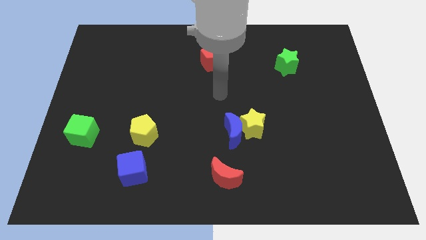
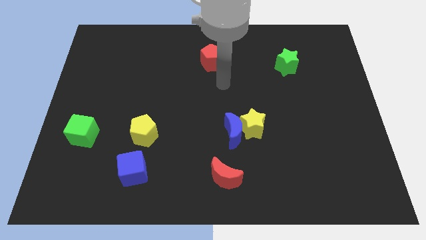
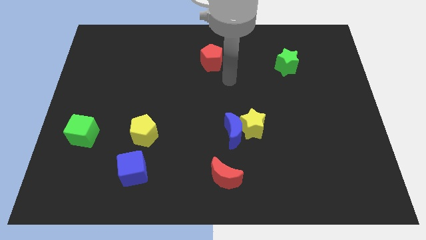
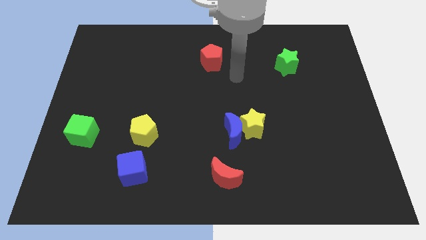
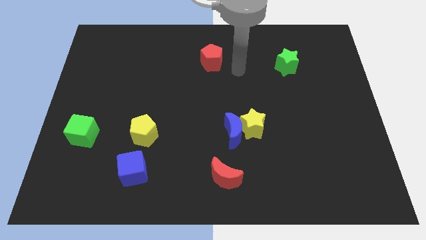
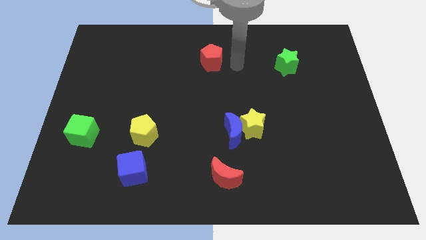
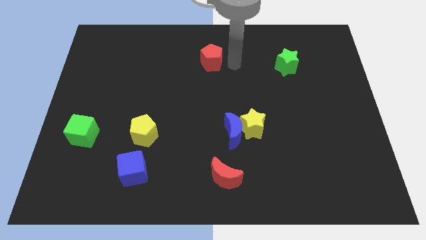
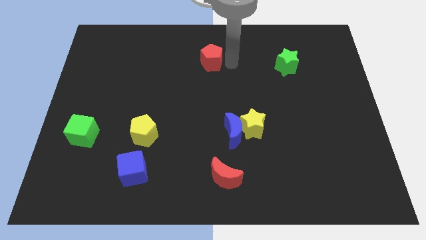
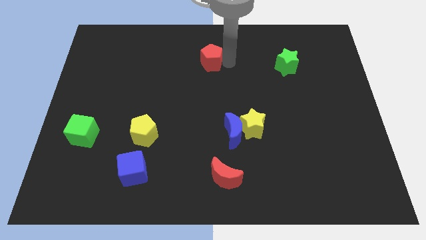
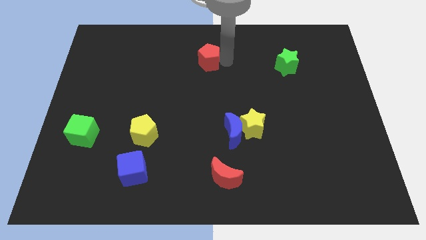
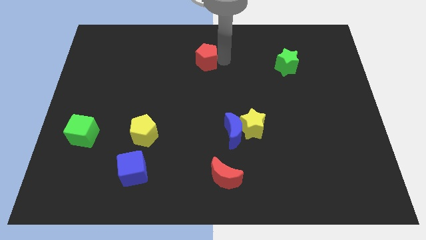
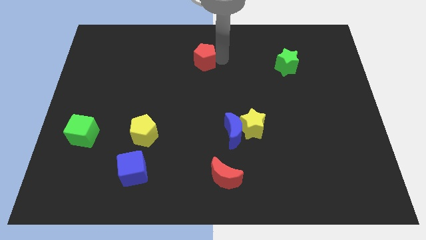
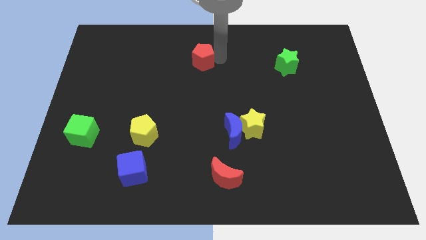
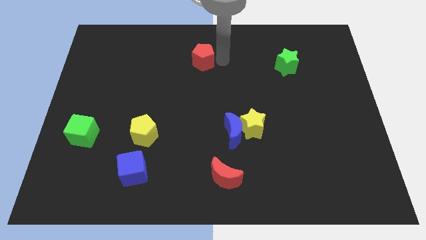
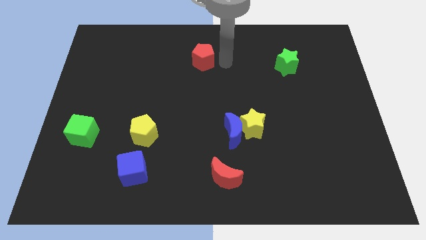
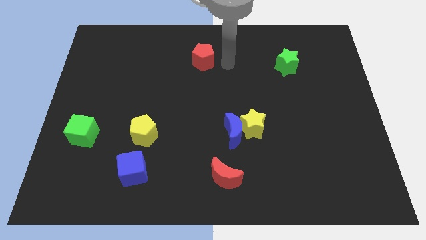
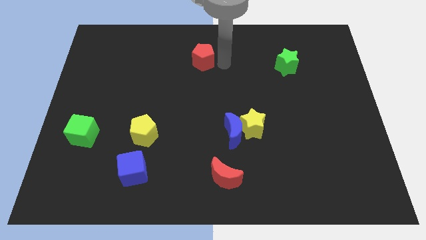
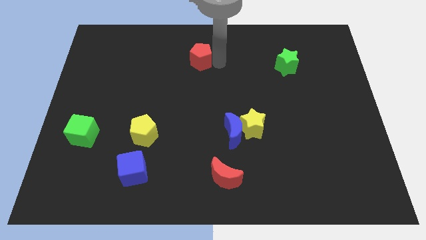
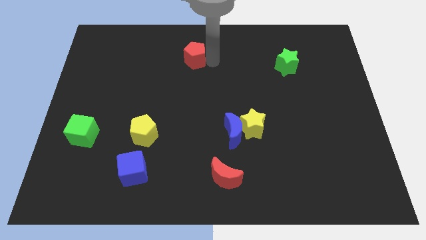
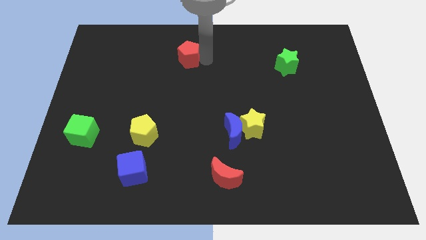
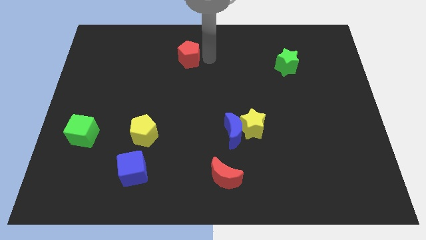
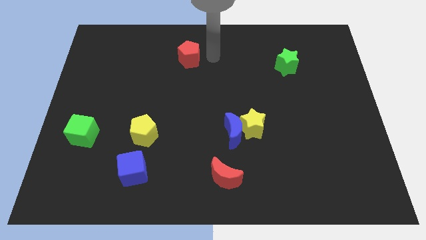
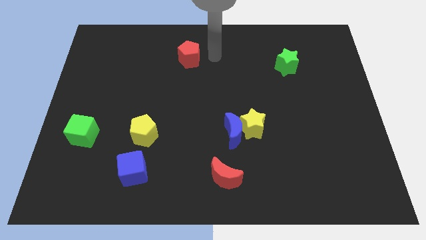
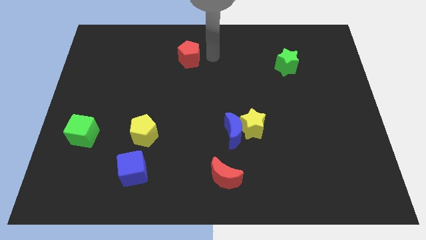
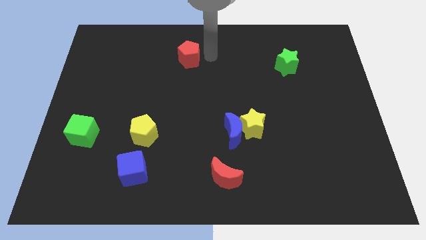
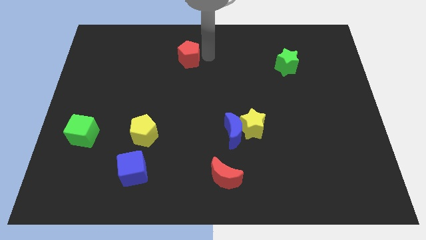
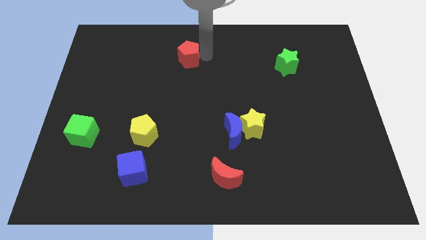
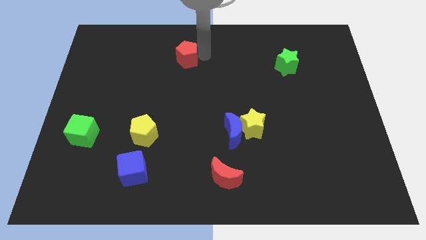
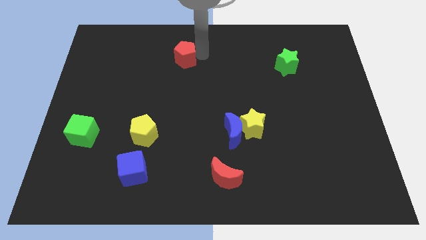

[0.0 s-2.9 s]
push the red pentagon a little bit left

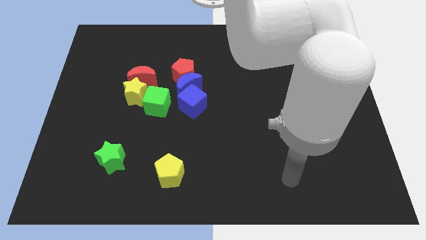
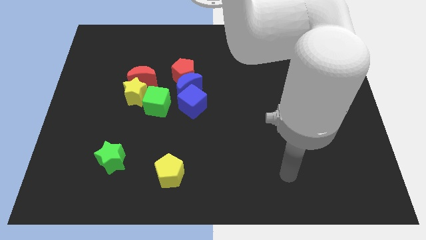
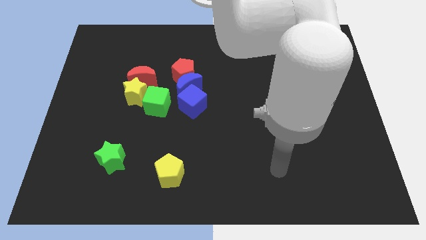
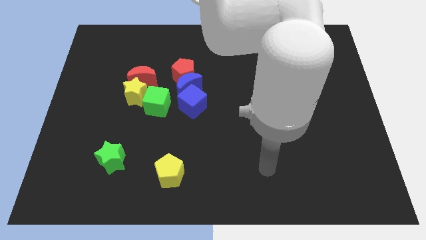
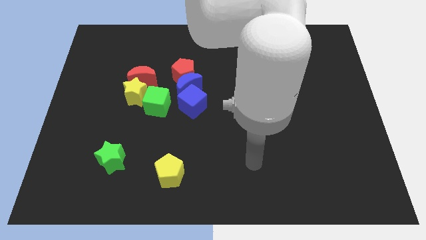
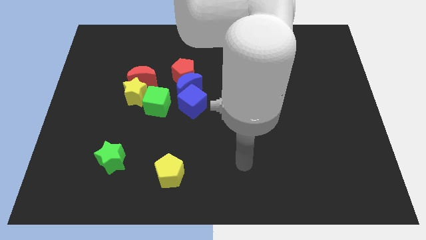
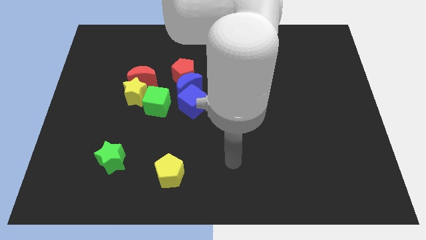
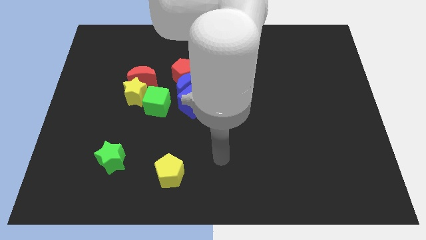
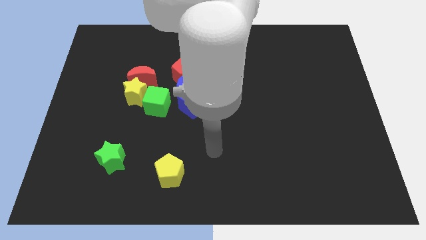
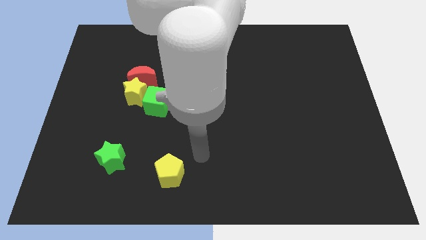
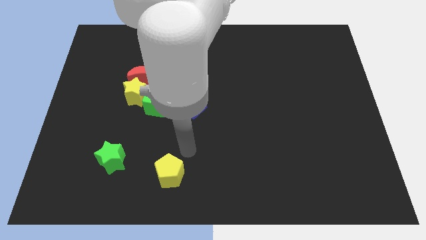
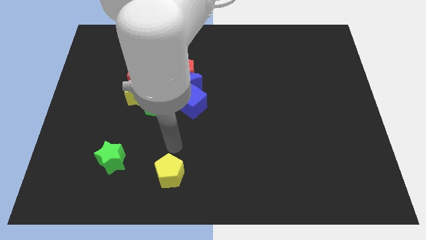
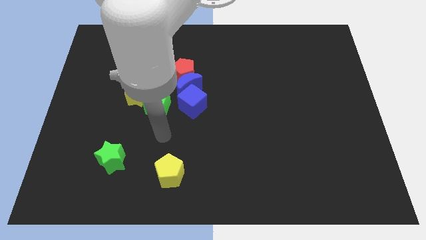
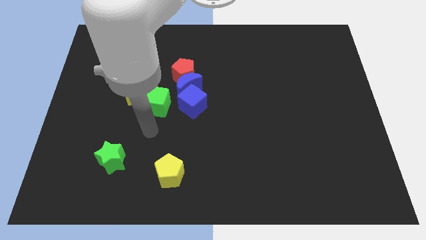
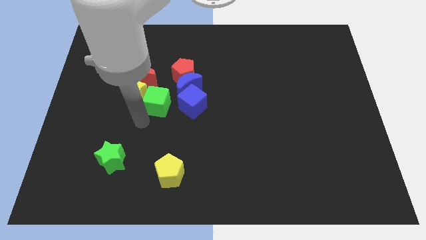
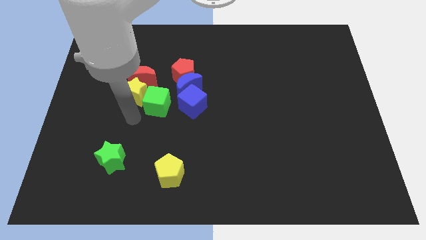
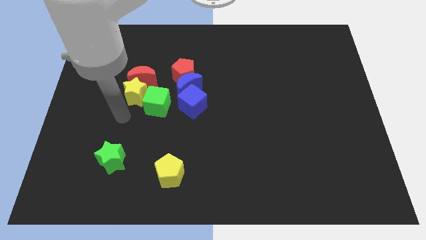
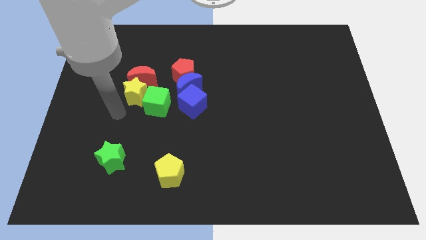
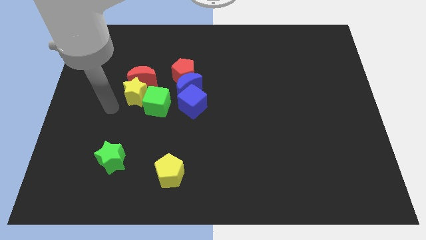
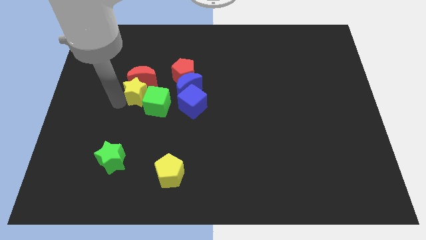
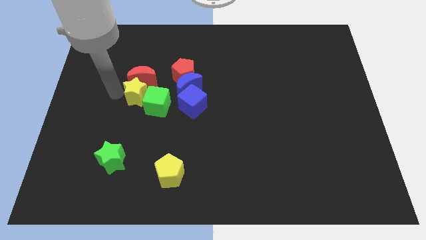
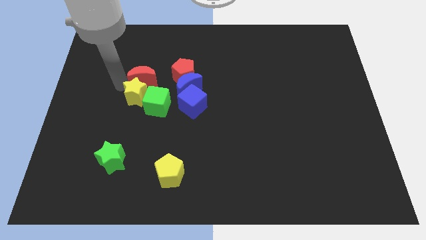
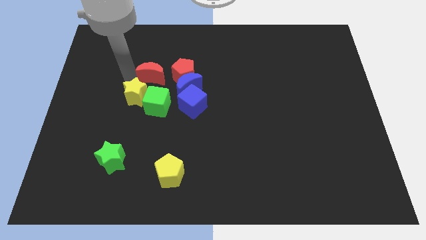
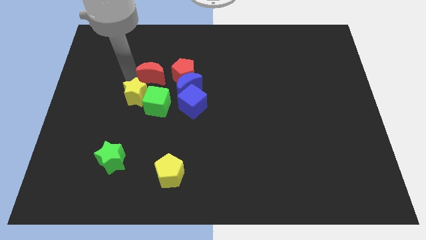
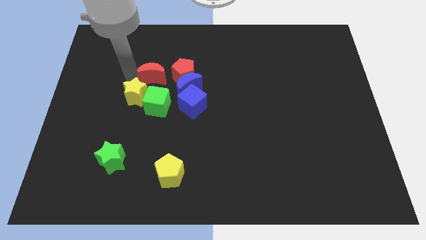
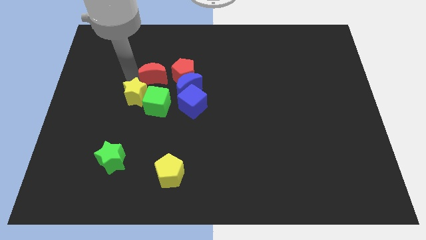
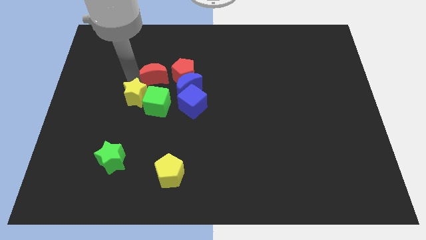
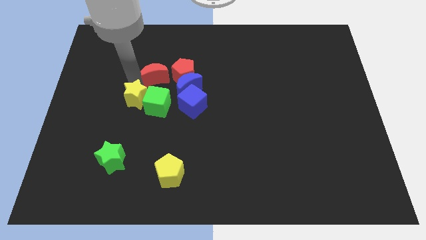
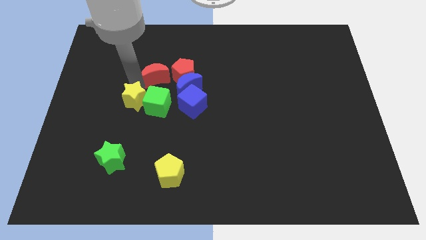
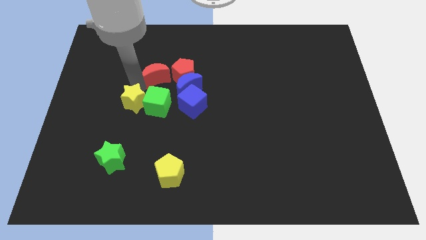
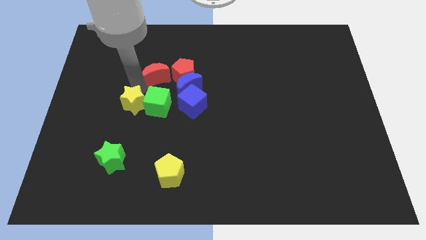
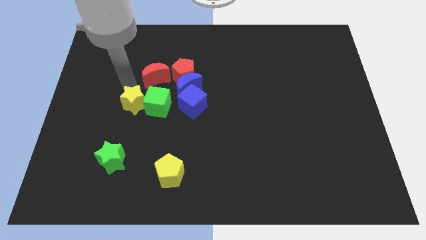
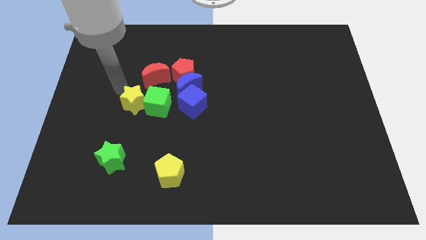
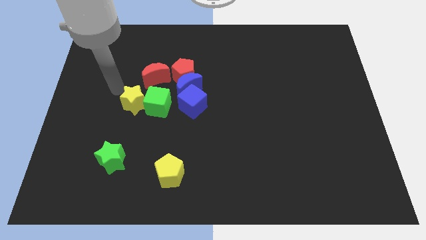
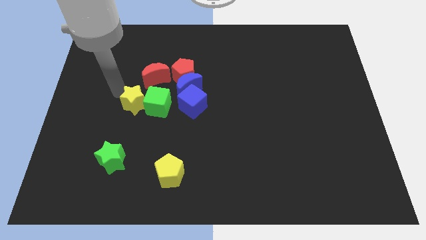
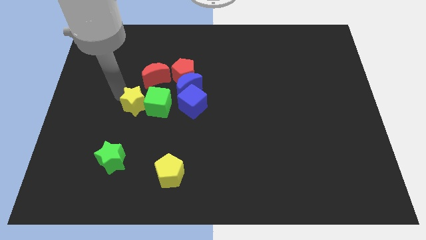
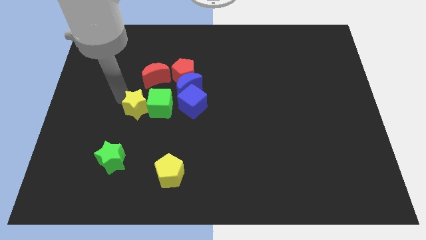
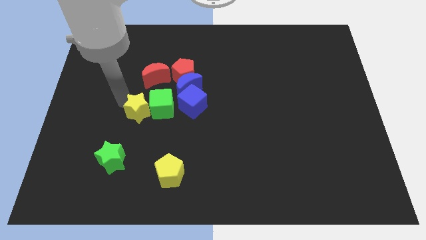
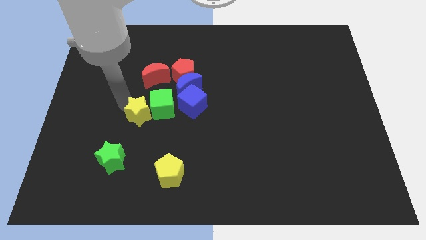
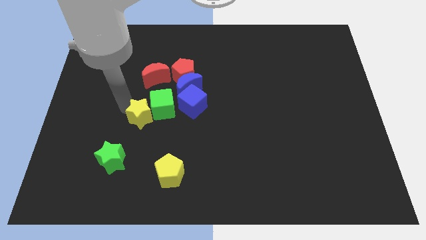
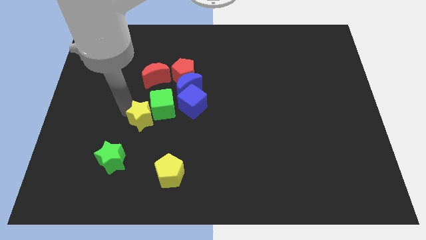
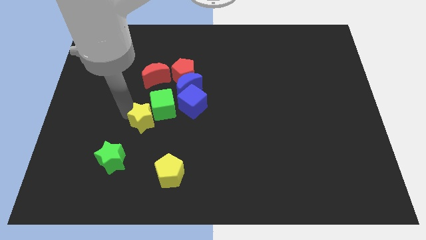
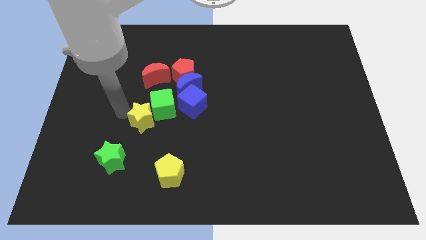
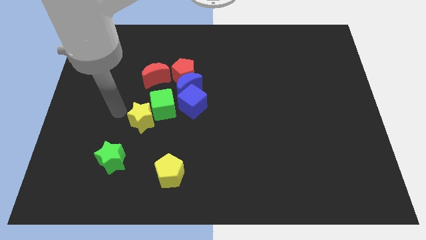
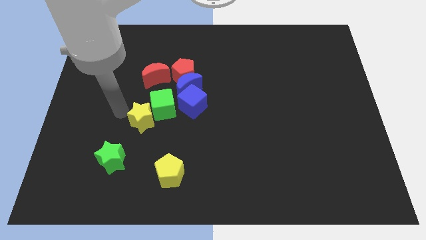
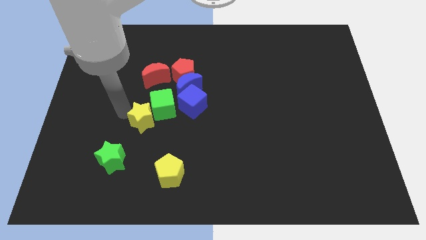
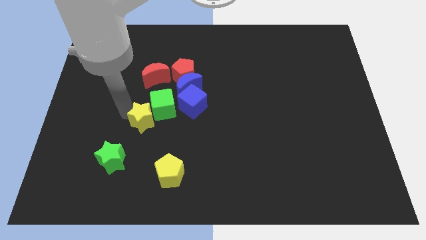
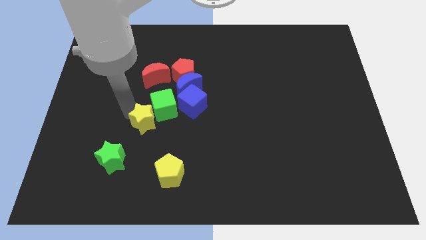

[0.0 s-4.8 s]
move the yellow star a little diagonally down and right

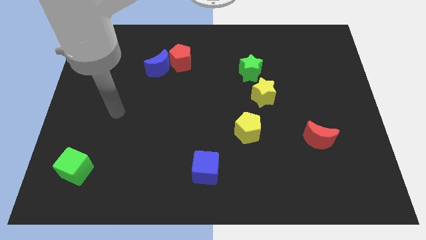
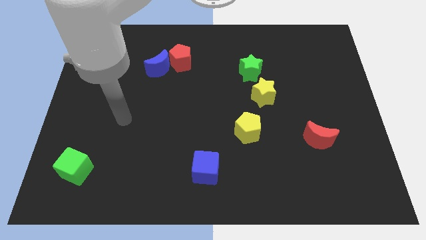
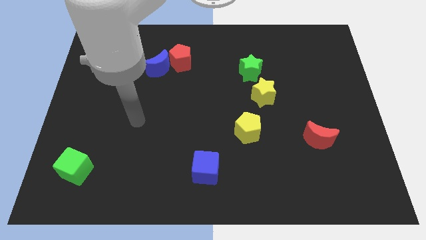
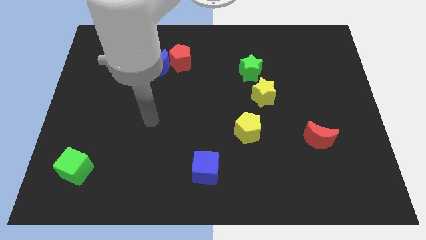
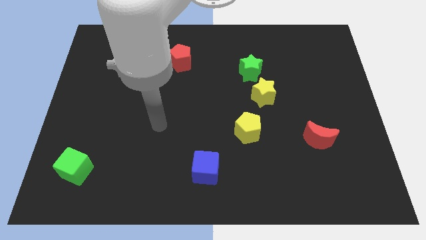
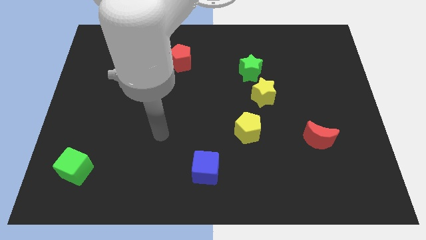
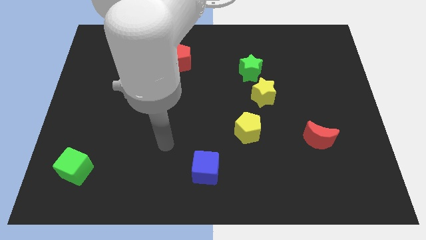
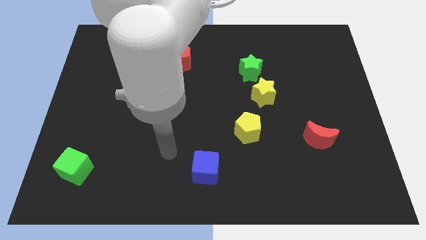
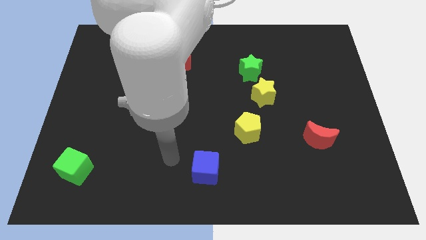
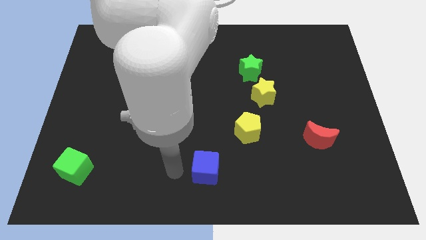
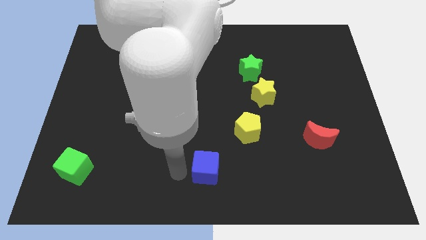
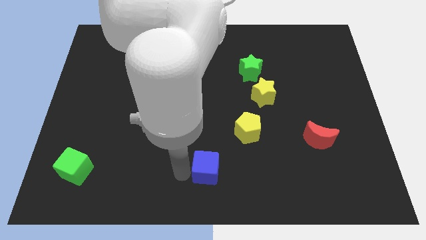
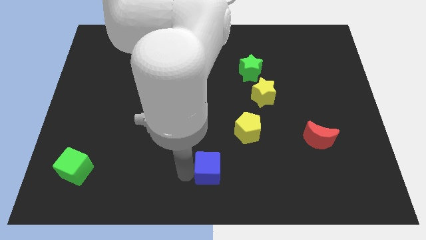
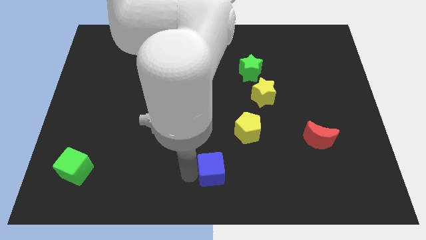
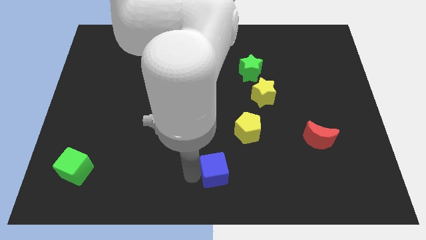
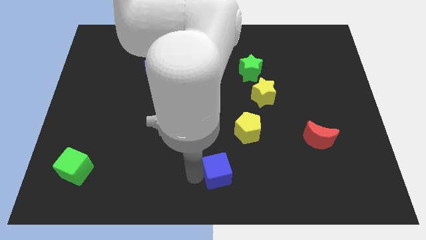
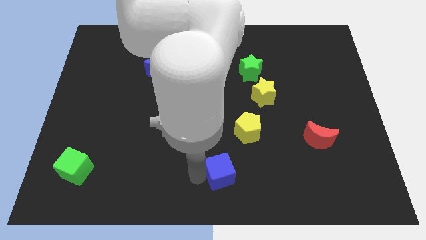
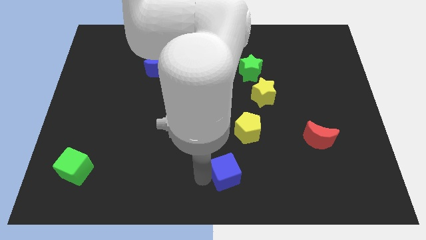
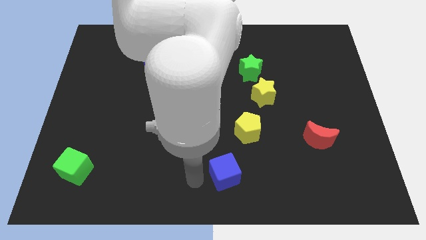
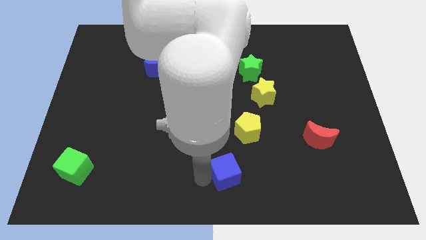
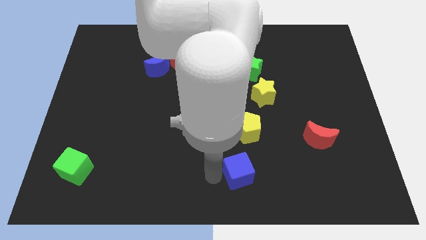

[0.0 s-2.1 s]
move the blue cube right a bit
